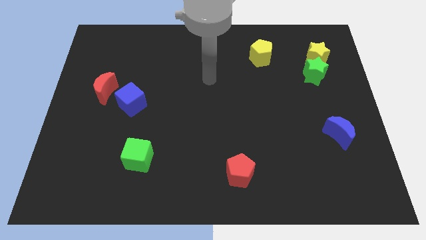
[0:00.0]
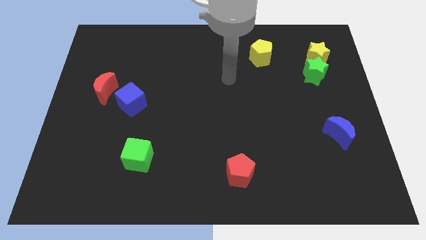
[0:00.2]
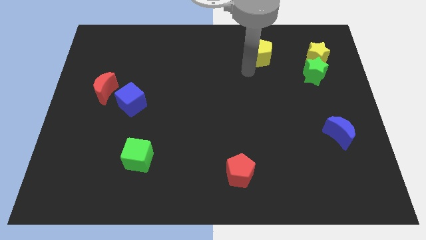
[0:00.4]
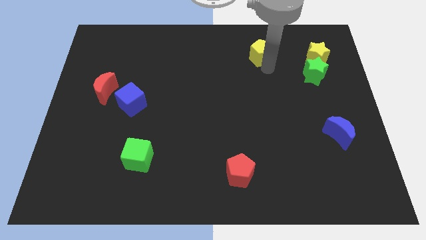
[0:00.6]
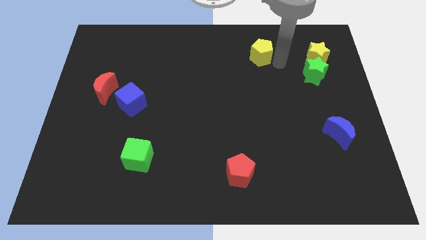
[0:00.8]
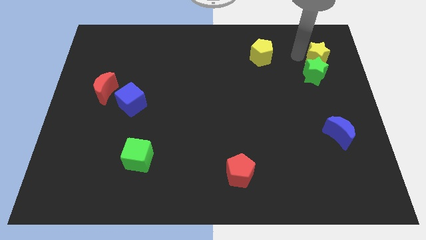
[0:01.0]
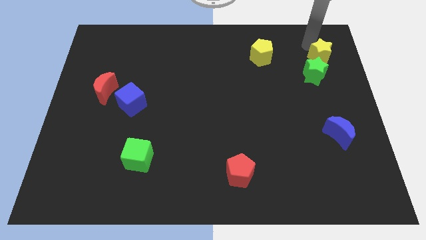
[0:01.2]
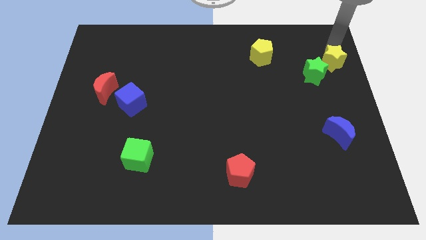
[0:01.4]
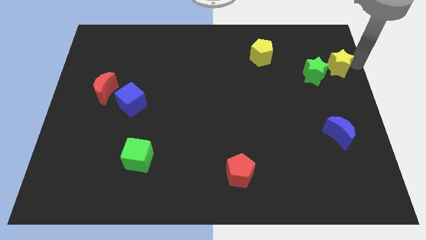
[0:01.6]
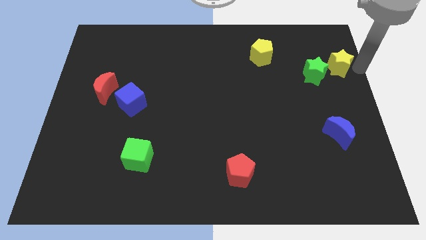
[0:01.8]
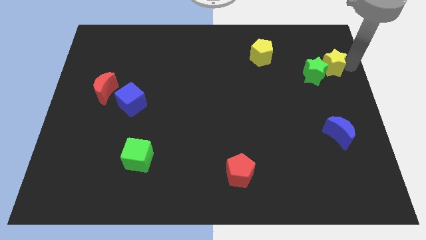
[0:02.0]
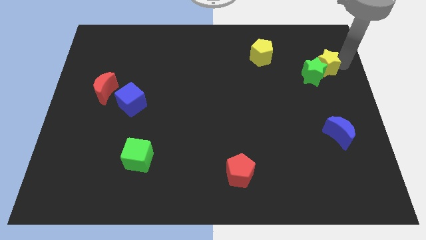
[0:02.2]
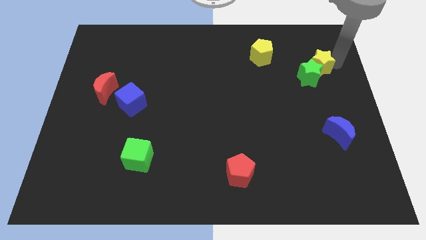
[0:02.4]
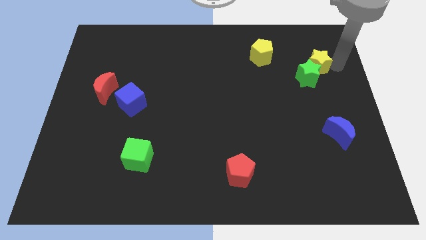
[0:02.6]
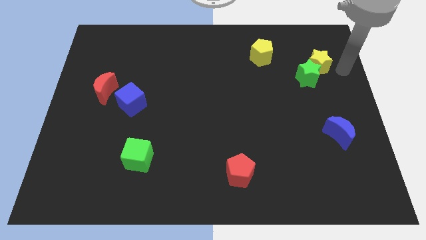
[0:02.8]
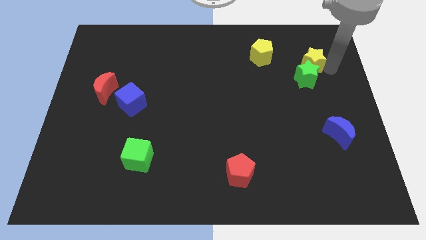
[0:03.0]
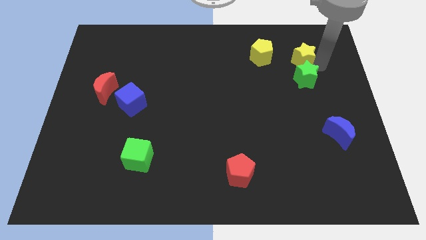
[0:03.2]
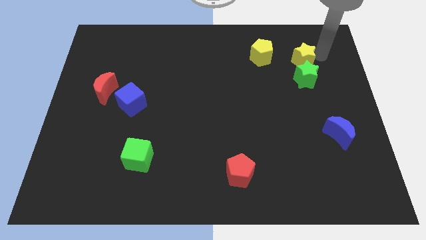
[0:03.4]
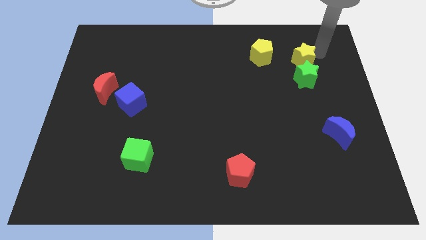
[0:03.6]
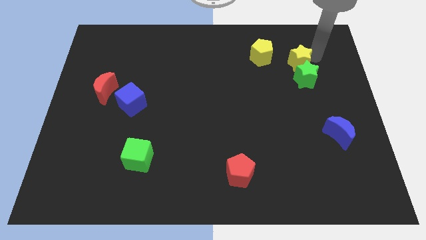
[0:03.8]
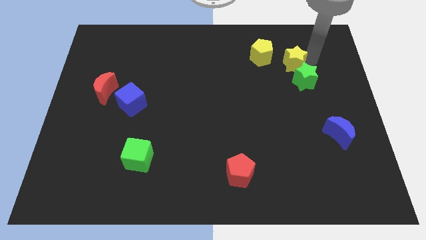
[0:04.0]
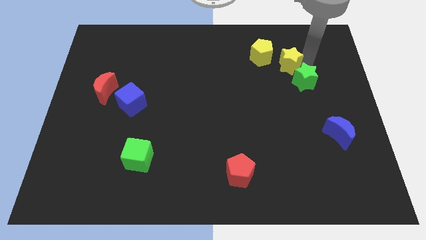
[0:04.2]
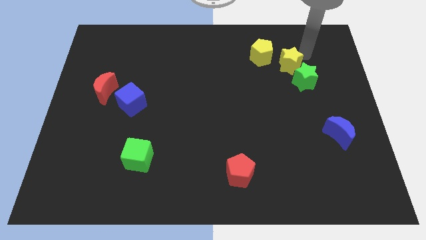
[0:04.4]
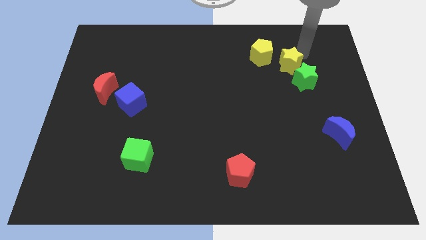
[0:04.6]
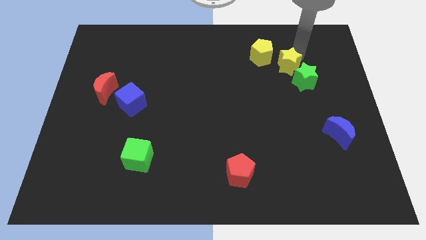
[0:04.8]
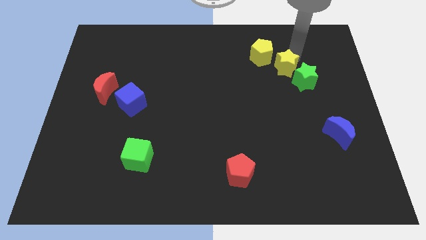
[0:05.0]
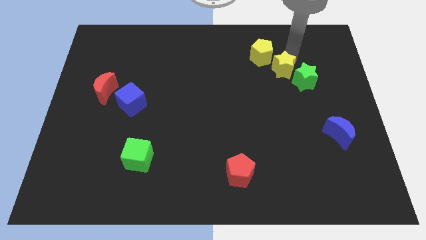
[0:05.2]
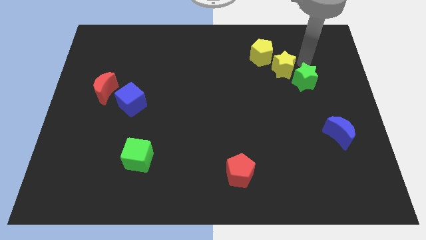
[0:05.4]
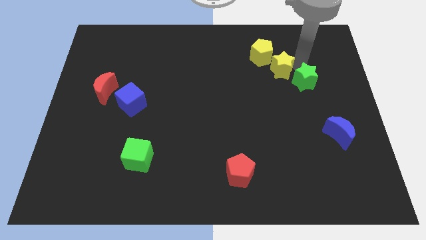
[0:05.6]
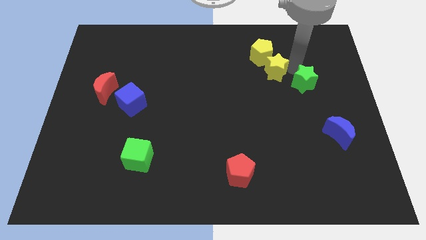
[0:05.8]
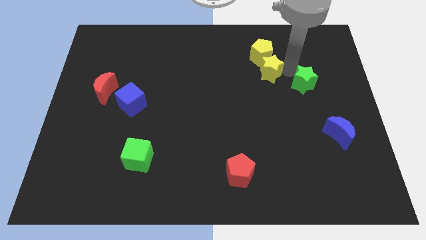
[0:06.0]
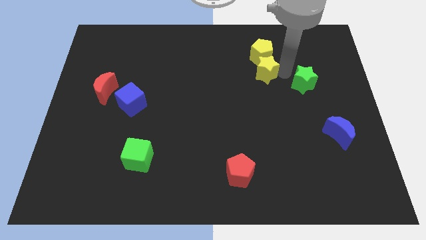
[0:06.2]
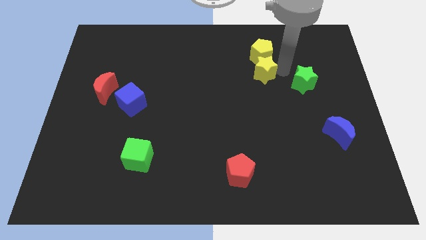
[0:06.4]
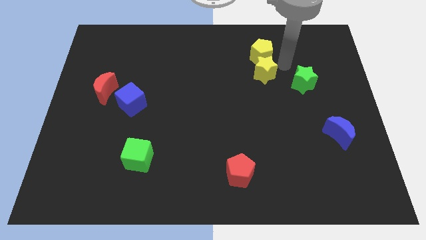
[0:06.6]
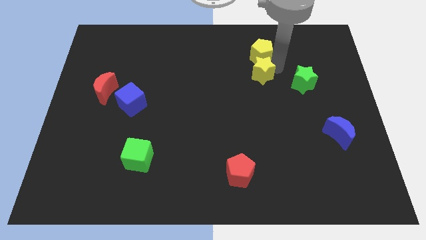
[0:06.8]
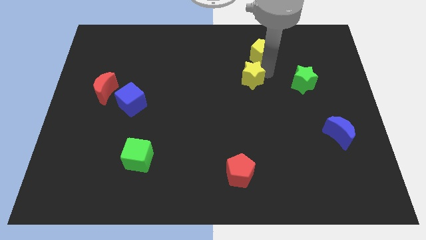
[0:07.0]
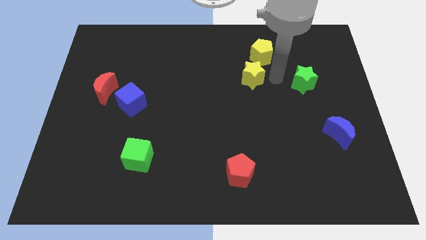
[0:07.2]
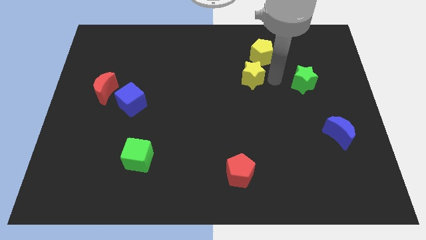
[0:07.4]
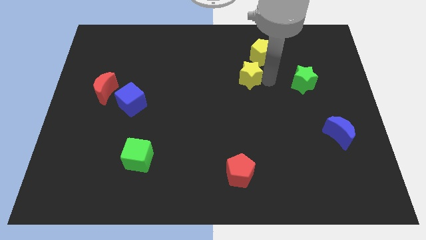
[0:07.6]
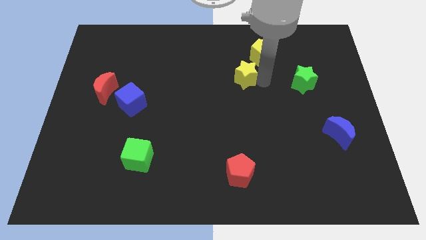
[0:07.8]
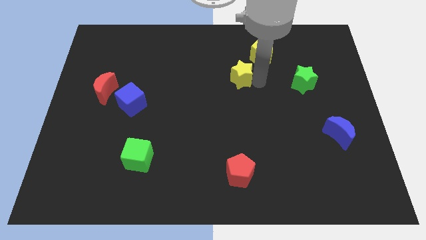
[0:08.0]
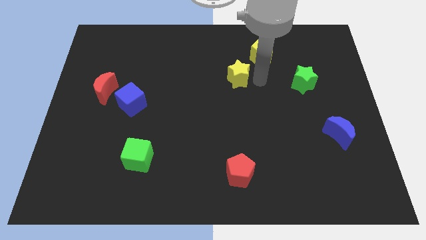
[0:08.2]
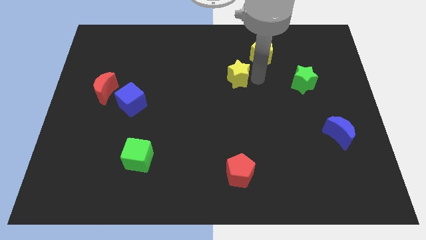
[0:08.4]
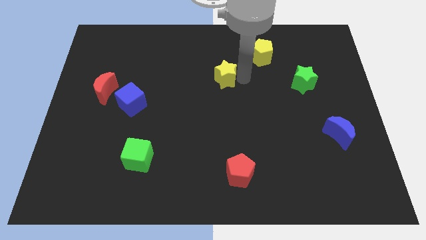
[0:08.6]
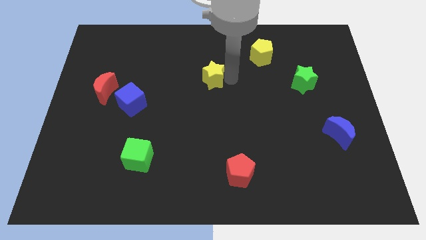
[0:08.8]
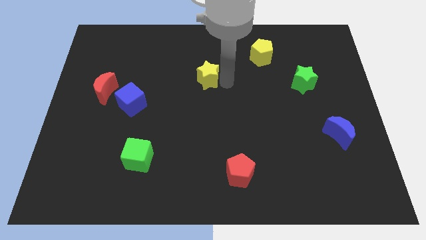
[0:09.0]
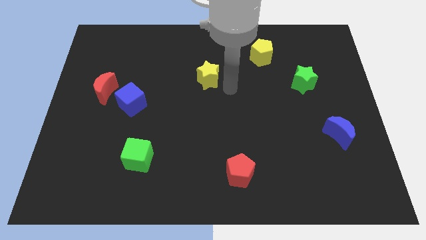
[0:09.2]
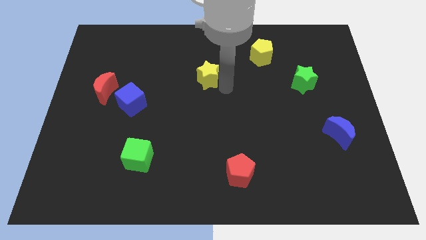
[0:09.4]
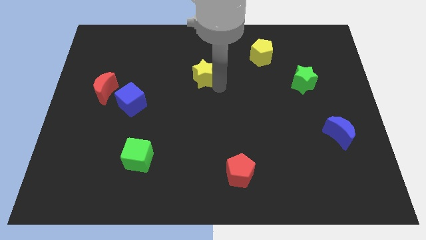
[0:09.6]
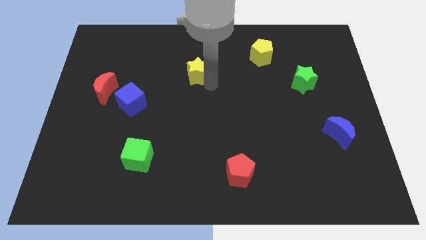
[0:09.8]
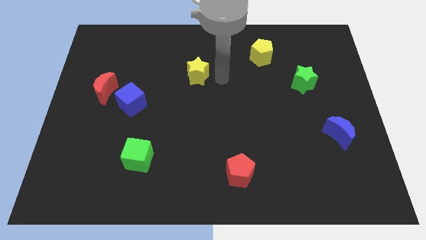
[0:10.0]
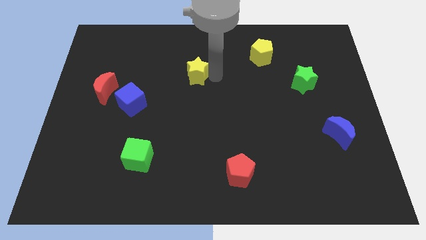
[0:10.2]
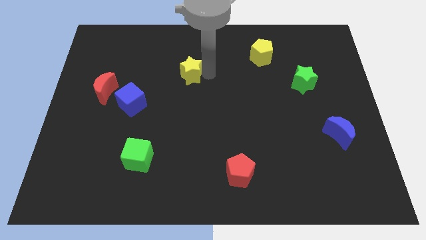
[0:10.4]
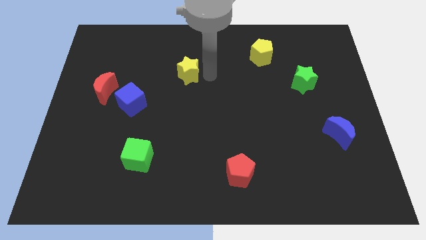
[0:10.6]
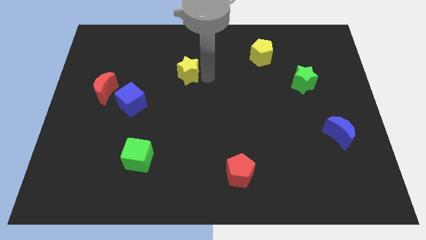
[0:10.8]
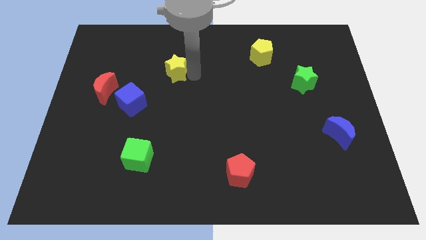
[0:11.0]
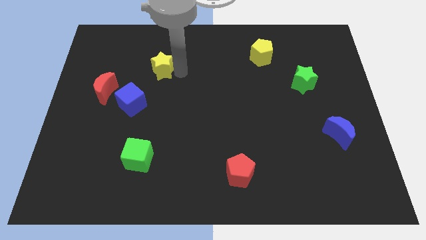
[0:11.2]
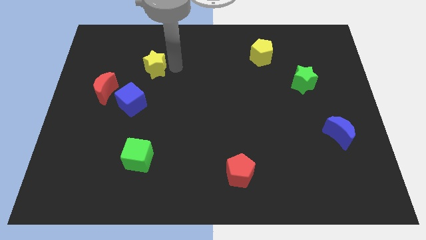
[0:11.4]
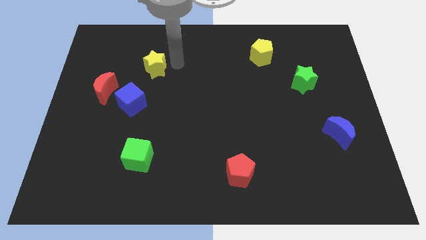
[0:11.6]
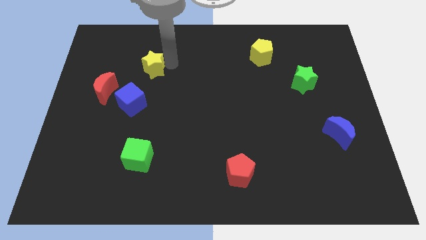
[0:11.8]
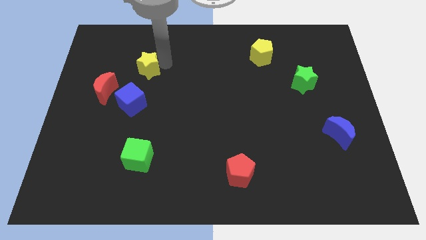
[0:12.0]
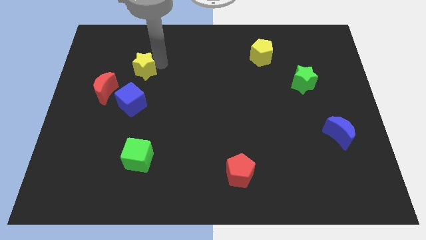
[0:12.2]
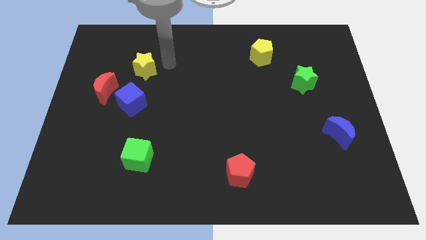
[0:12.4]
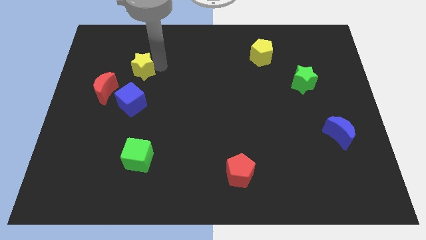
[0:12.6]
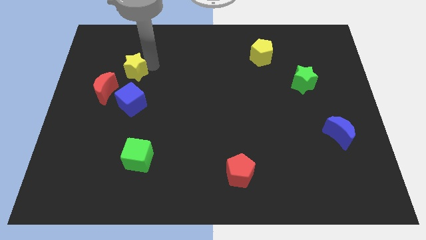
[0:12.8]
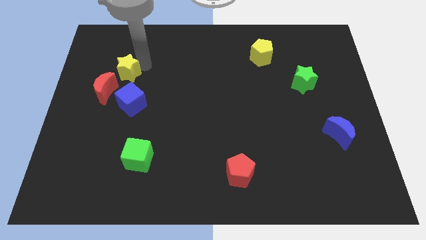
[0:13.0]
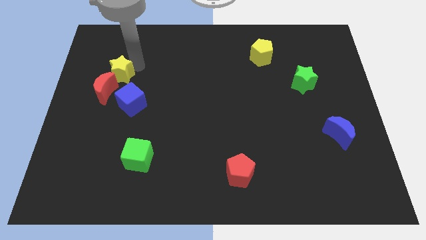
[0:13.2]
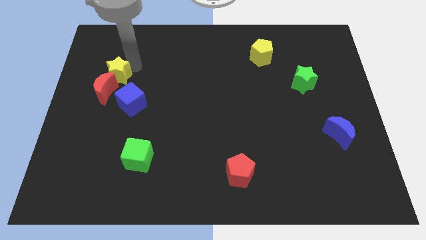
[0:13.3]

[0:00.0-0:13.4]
put the yellow star to the red moon

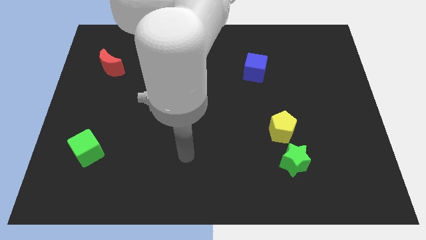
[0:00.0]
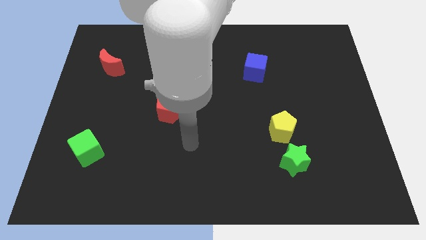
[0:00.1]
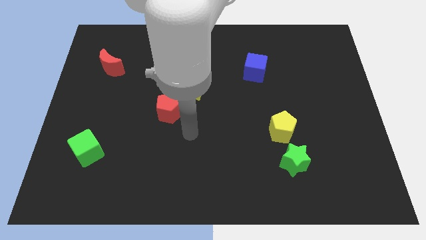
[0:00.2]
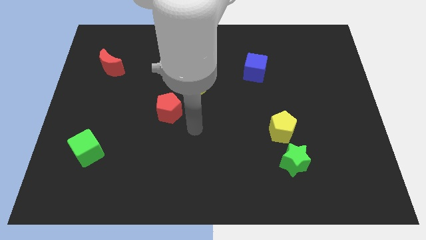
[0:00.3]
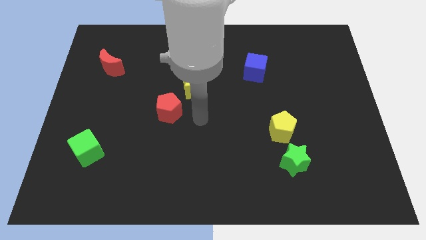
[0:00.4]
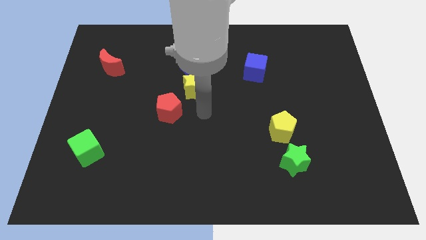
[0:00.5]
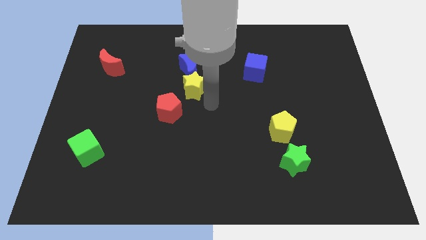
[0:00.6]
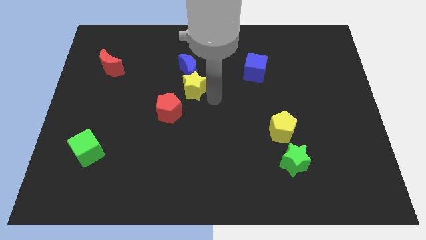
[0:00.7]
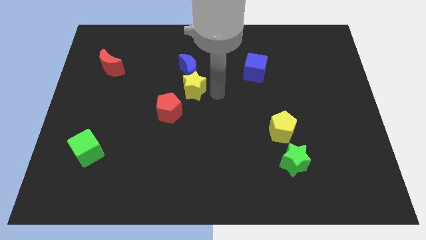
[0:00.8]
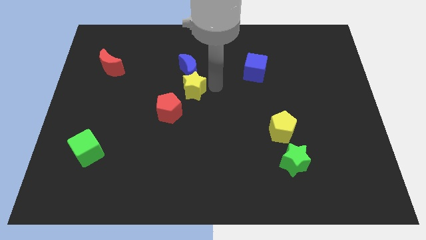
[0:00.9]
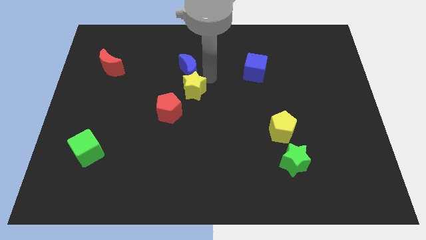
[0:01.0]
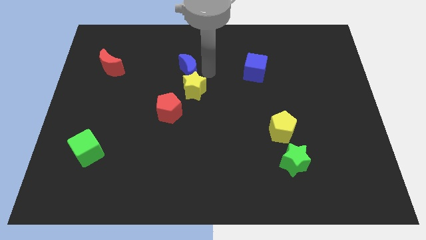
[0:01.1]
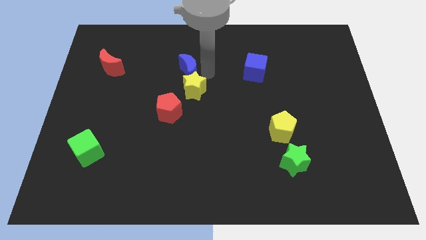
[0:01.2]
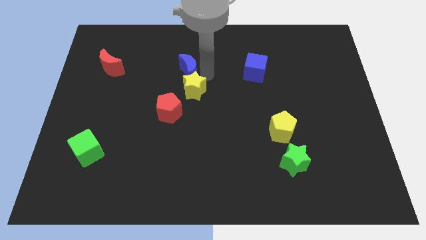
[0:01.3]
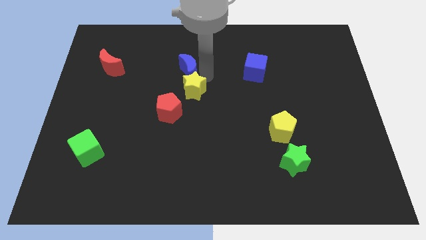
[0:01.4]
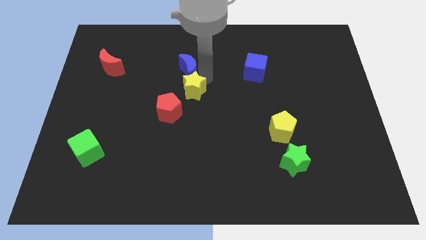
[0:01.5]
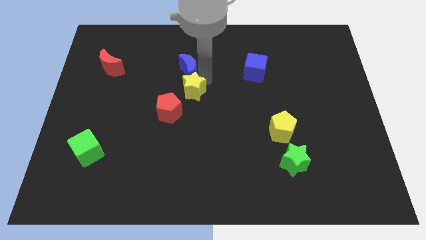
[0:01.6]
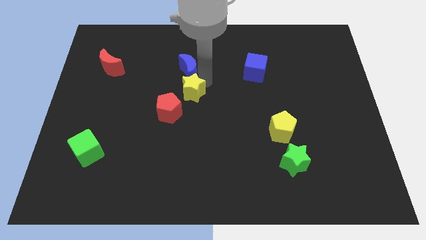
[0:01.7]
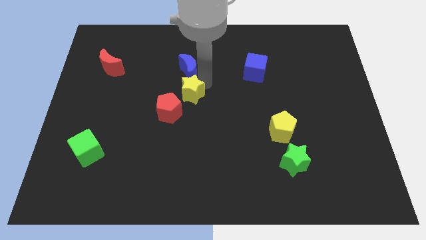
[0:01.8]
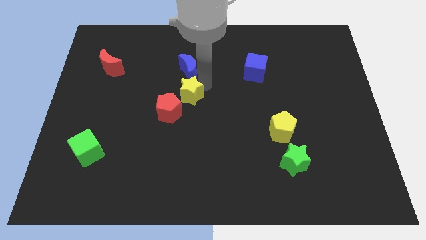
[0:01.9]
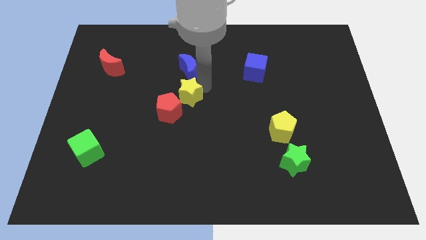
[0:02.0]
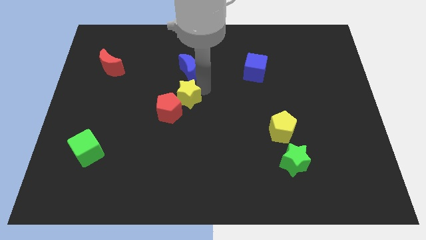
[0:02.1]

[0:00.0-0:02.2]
slide the yellow star close to the red pentagon
